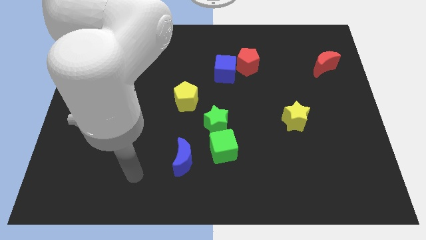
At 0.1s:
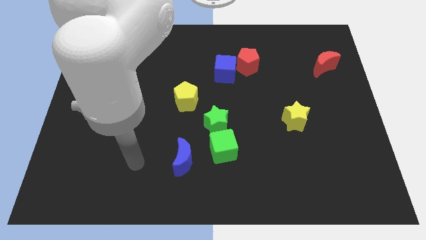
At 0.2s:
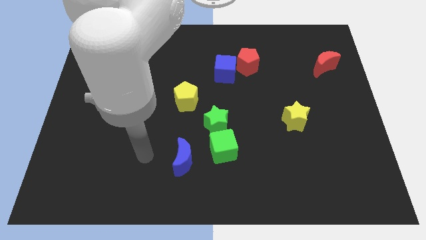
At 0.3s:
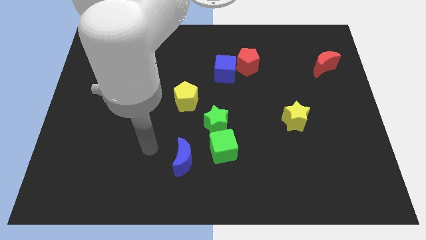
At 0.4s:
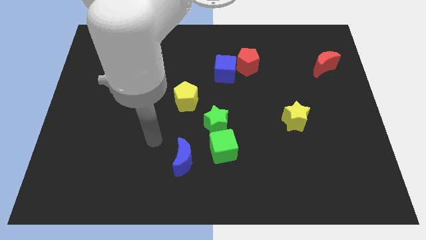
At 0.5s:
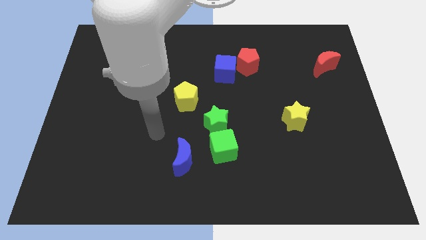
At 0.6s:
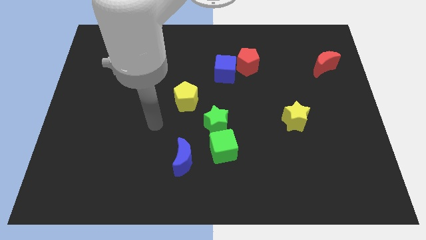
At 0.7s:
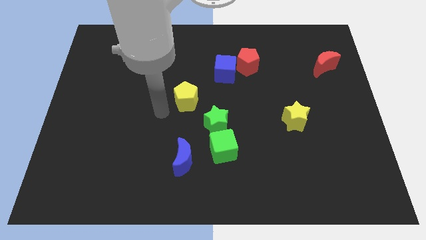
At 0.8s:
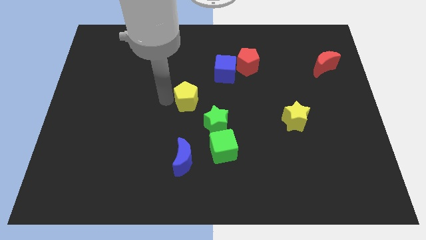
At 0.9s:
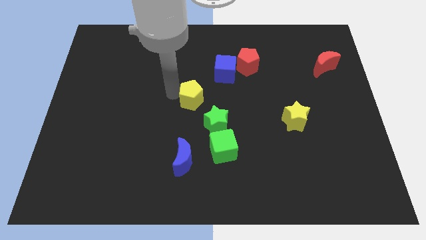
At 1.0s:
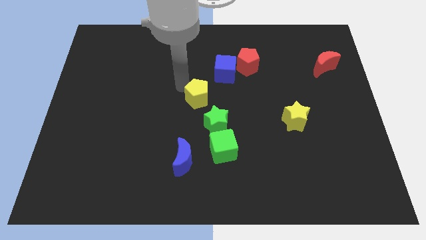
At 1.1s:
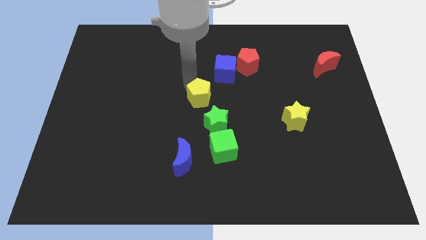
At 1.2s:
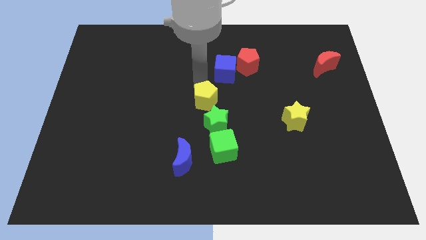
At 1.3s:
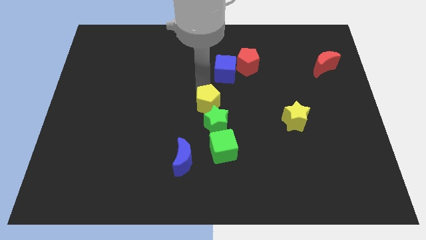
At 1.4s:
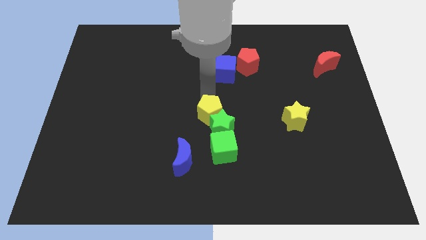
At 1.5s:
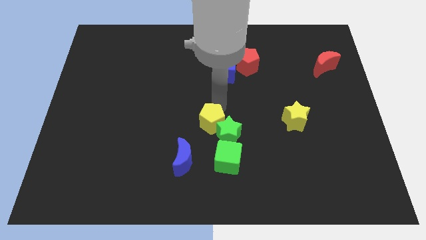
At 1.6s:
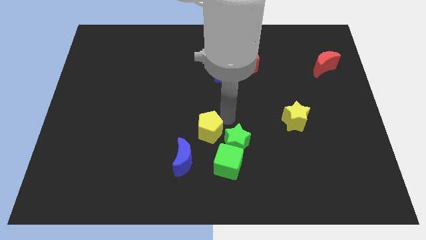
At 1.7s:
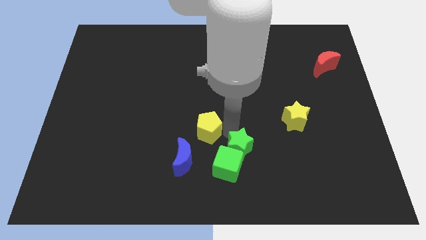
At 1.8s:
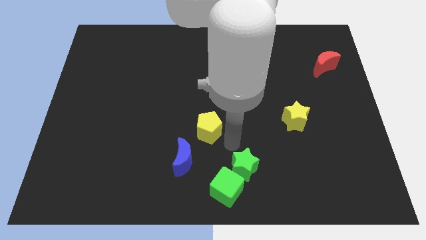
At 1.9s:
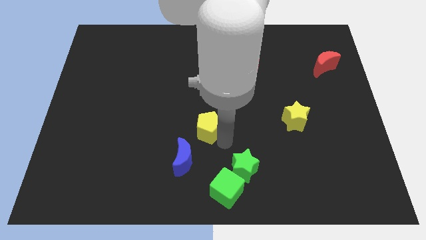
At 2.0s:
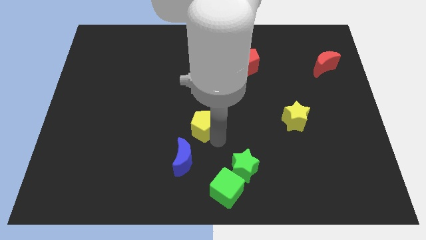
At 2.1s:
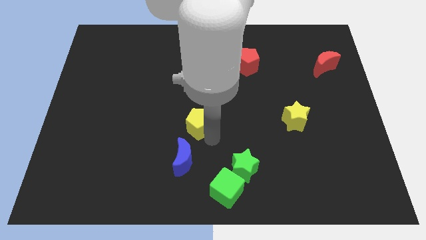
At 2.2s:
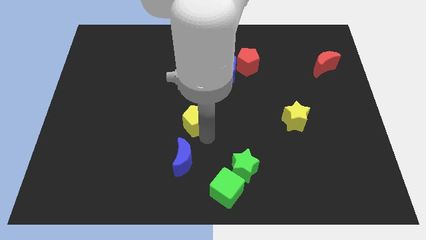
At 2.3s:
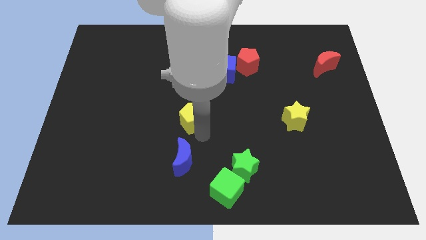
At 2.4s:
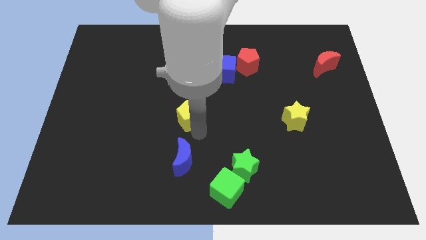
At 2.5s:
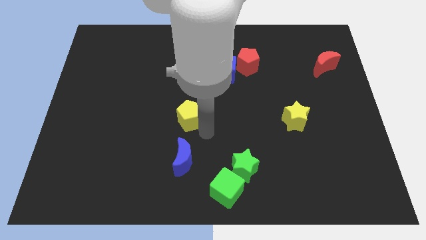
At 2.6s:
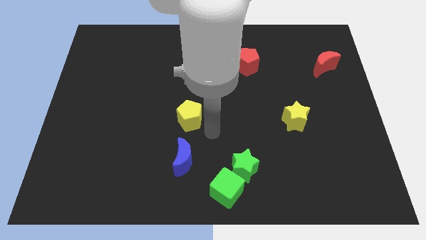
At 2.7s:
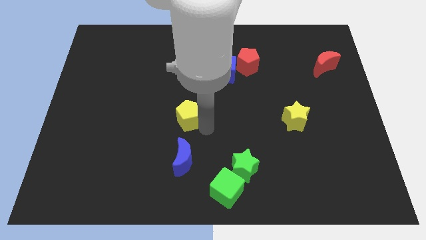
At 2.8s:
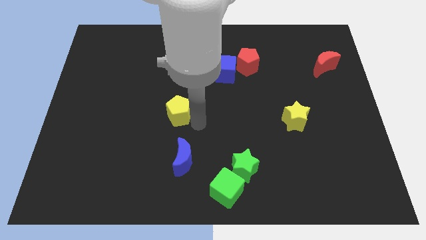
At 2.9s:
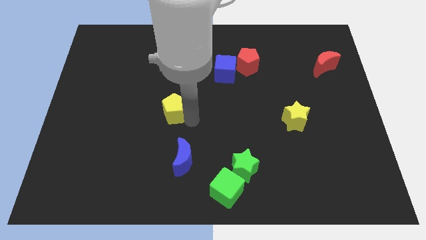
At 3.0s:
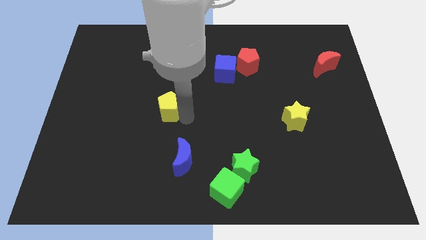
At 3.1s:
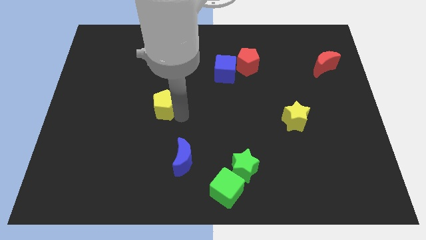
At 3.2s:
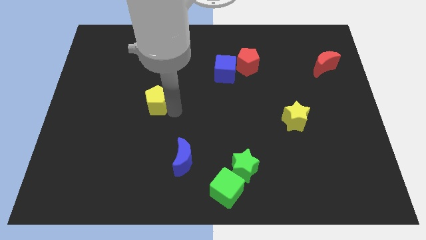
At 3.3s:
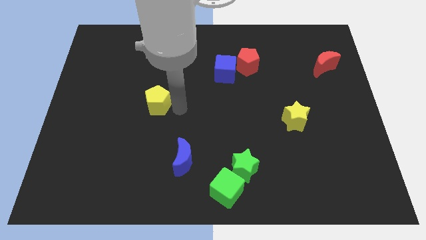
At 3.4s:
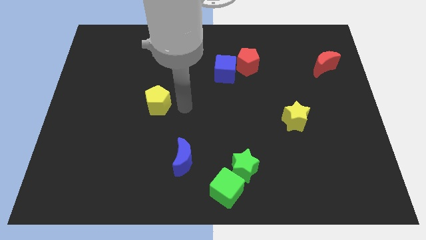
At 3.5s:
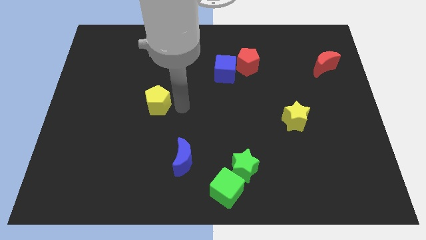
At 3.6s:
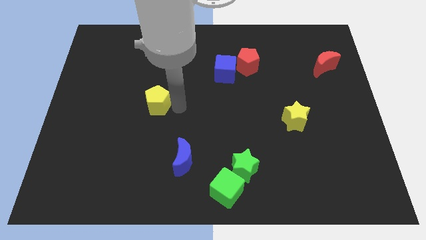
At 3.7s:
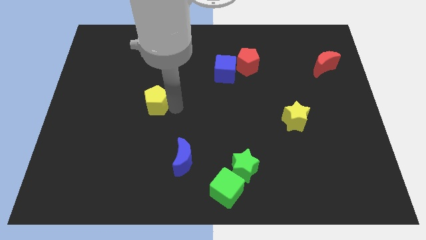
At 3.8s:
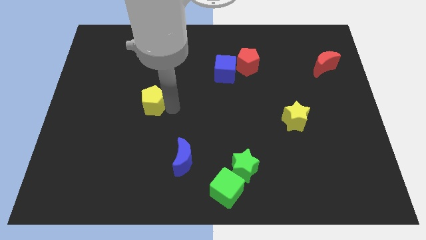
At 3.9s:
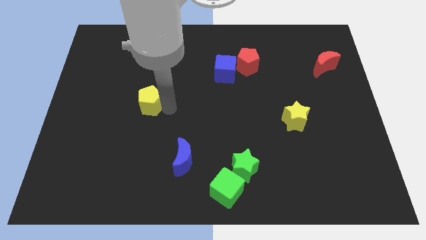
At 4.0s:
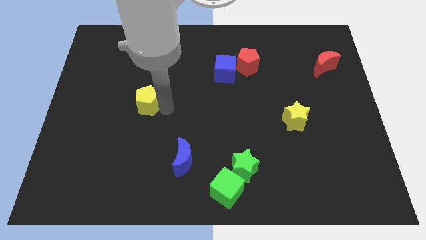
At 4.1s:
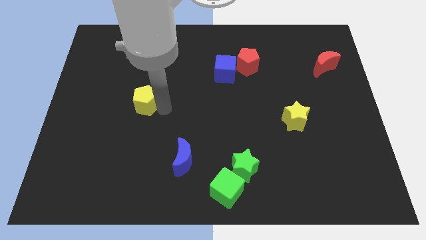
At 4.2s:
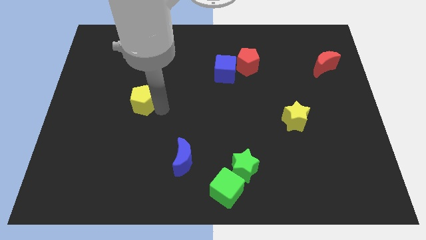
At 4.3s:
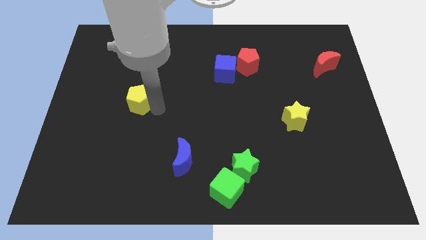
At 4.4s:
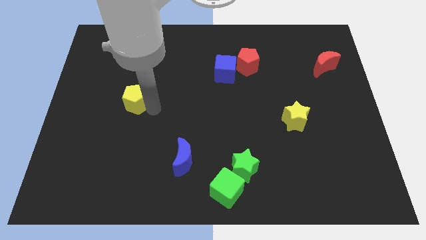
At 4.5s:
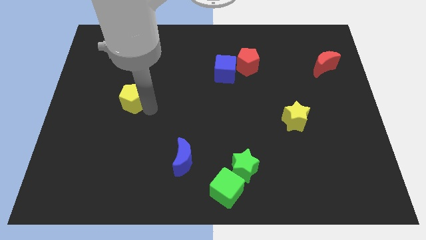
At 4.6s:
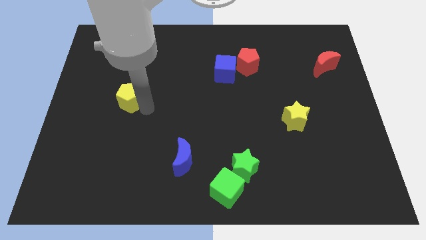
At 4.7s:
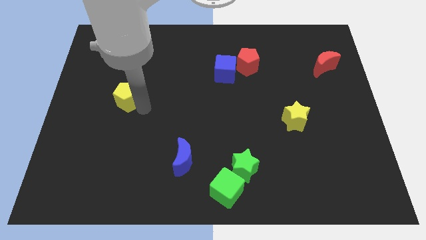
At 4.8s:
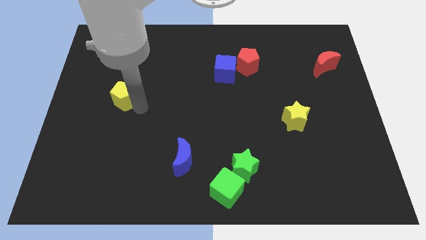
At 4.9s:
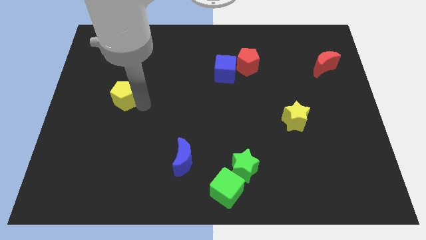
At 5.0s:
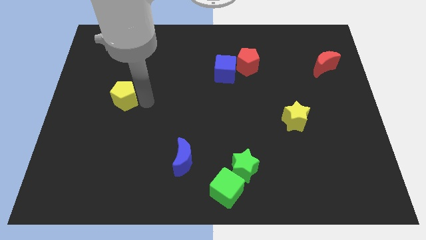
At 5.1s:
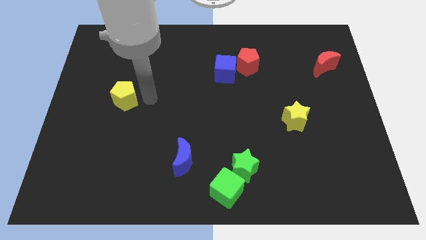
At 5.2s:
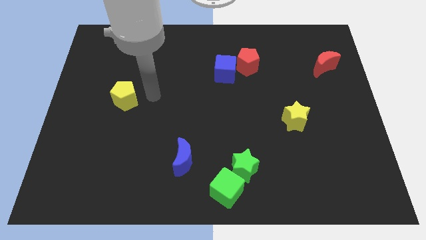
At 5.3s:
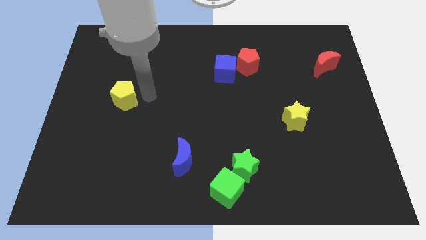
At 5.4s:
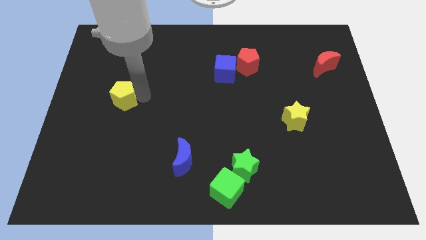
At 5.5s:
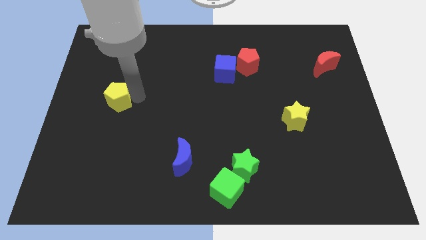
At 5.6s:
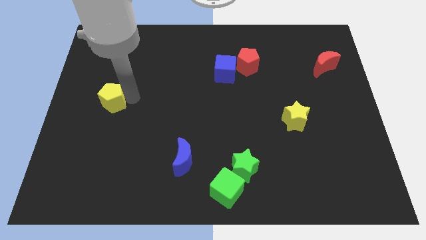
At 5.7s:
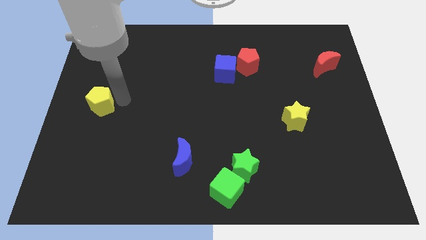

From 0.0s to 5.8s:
push the yellow pentagon to the left side of the board
